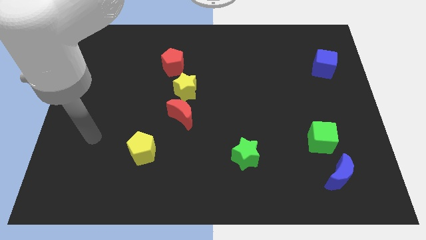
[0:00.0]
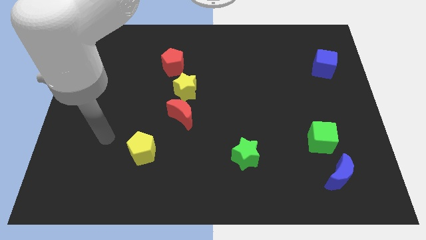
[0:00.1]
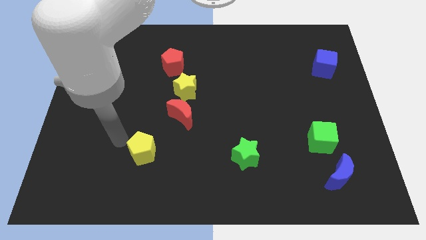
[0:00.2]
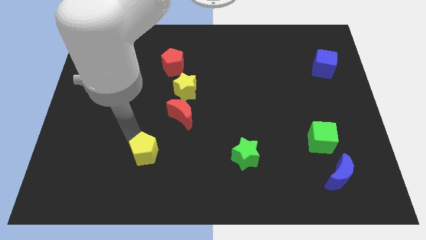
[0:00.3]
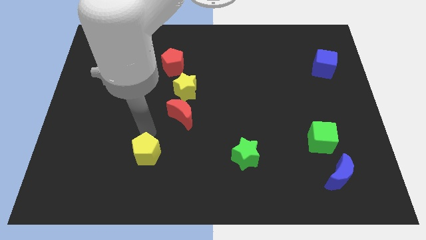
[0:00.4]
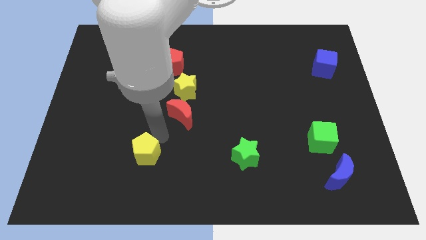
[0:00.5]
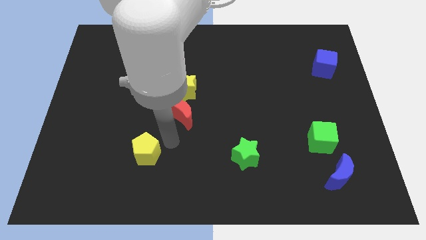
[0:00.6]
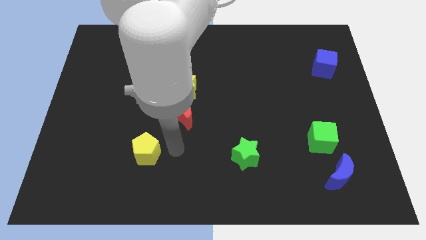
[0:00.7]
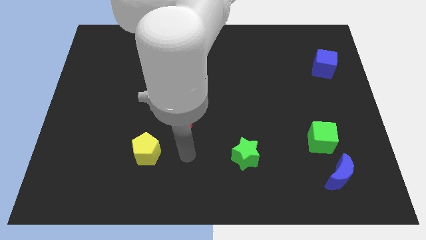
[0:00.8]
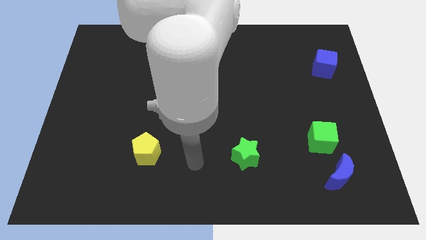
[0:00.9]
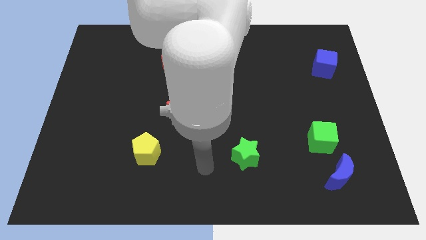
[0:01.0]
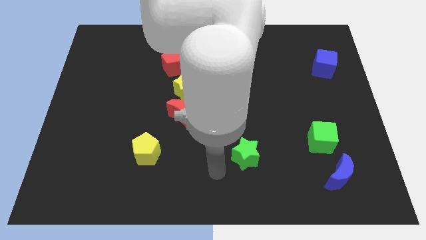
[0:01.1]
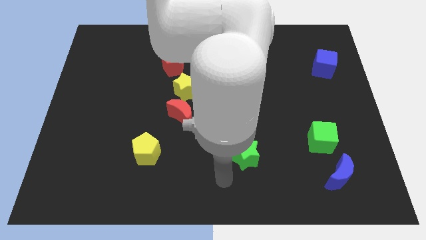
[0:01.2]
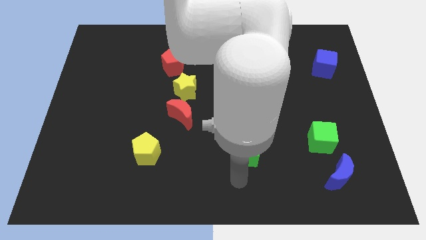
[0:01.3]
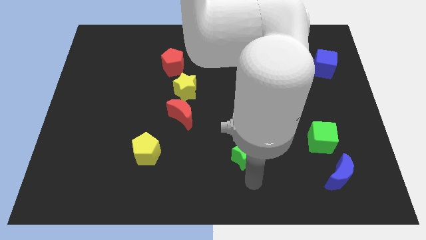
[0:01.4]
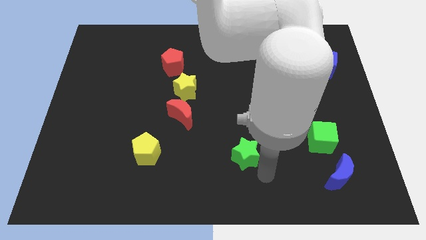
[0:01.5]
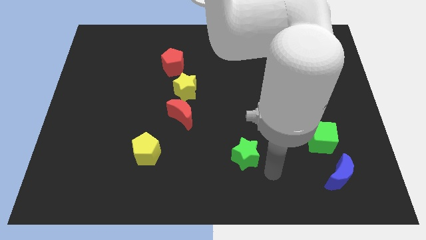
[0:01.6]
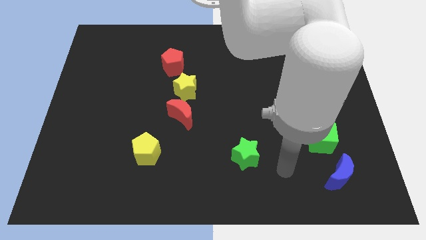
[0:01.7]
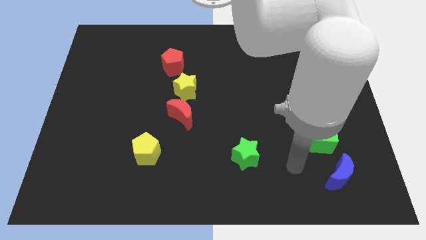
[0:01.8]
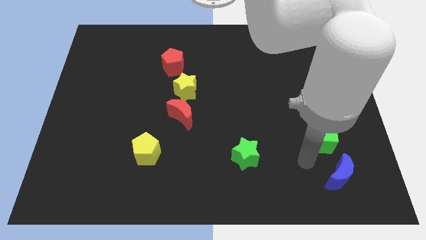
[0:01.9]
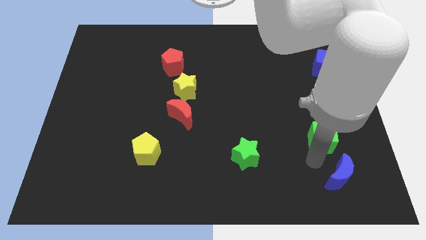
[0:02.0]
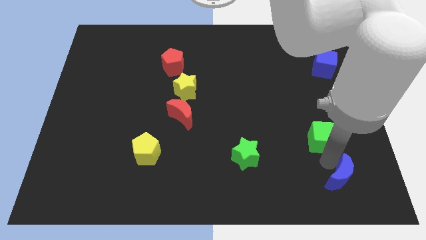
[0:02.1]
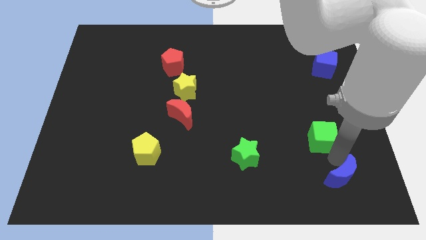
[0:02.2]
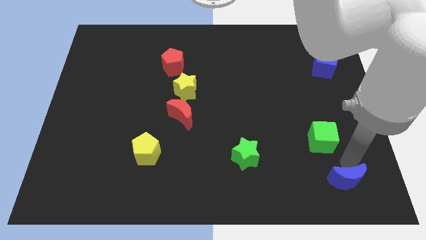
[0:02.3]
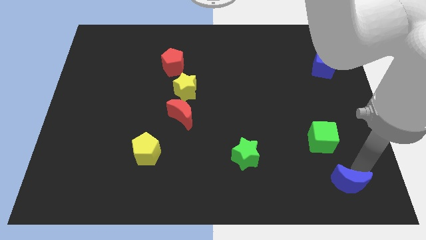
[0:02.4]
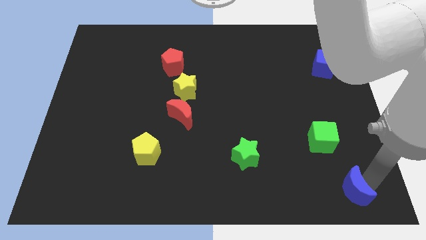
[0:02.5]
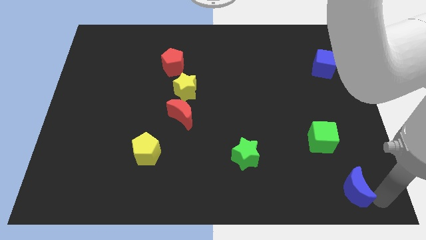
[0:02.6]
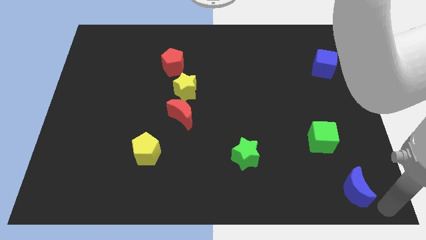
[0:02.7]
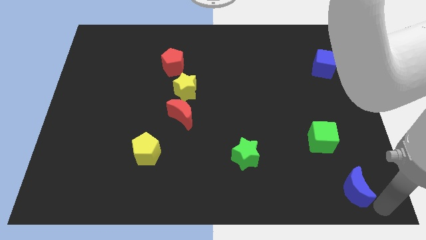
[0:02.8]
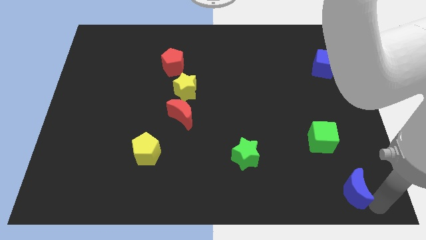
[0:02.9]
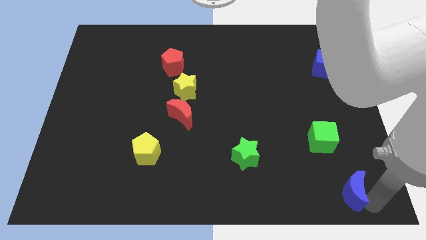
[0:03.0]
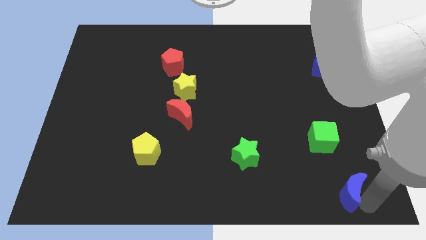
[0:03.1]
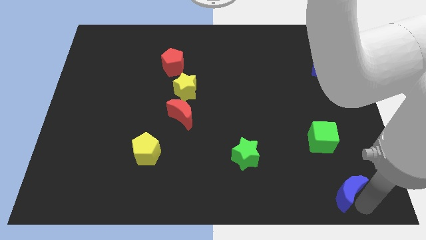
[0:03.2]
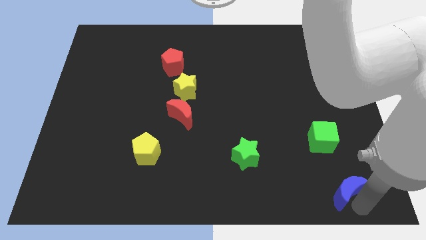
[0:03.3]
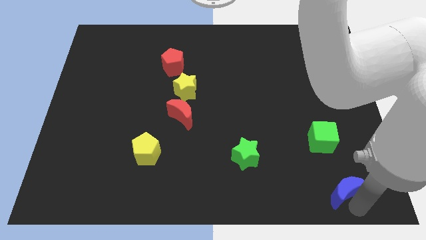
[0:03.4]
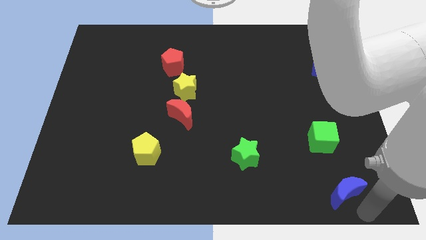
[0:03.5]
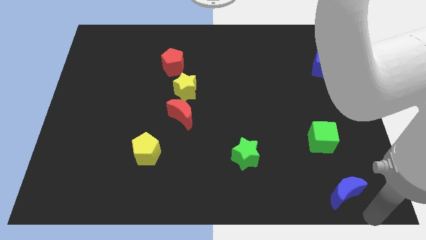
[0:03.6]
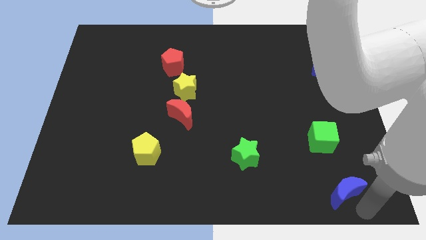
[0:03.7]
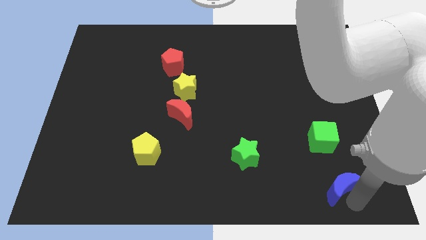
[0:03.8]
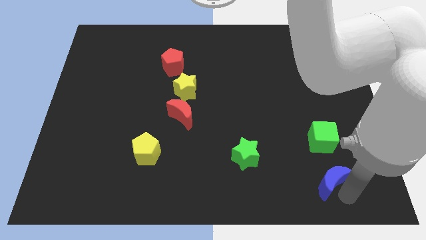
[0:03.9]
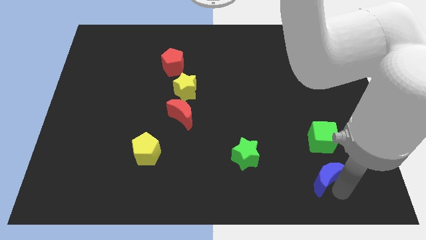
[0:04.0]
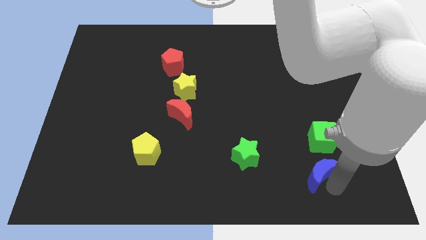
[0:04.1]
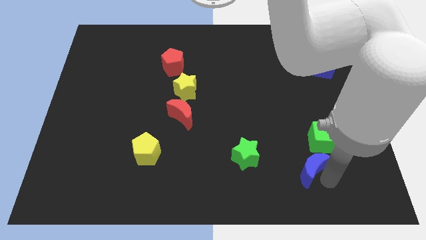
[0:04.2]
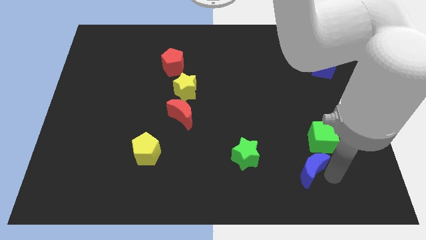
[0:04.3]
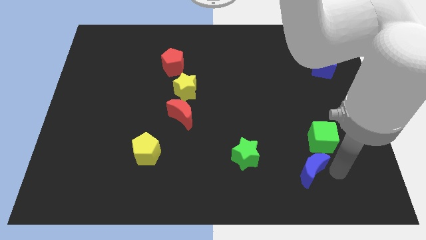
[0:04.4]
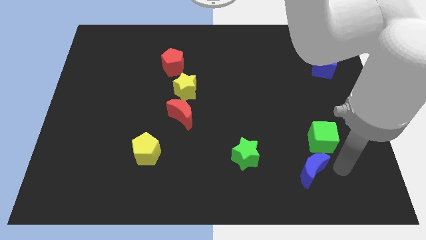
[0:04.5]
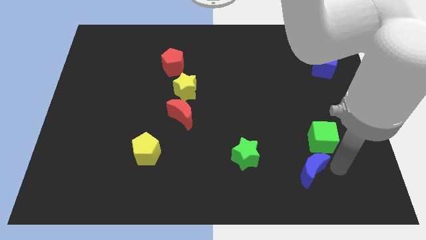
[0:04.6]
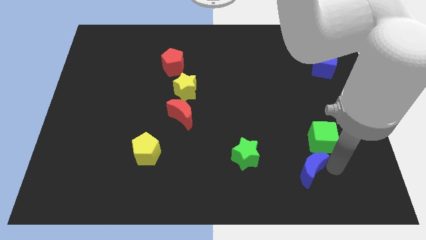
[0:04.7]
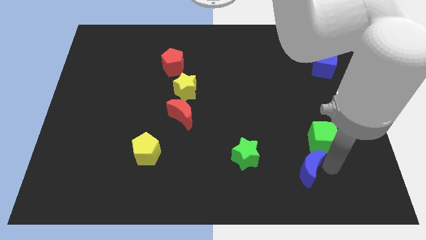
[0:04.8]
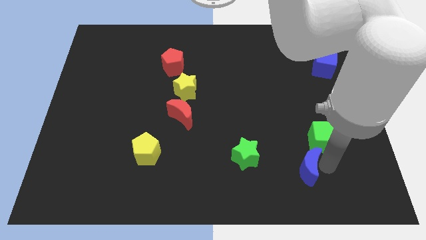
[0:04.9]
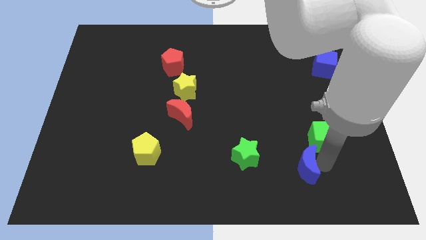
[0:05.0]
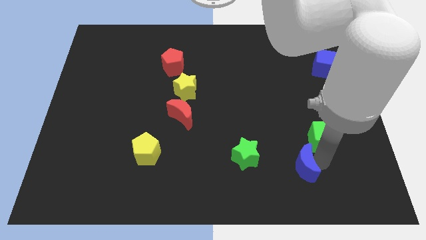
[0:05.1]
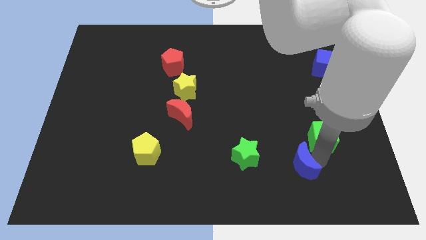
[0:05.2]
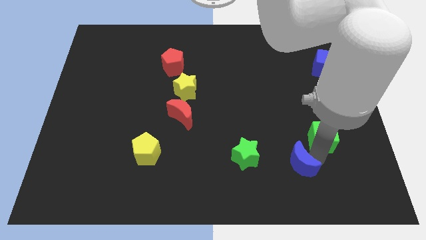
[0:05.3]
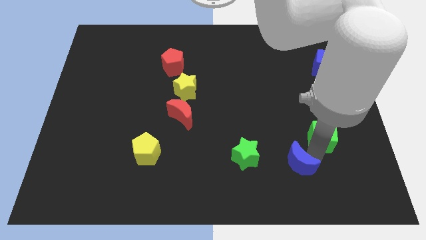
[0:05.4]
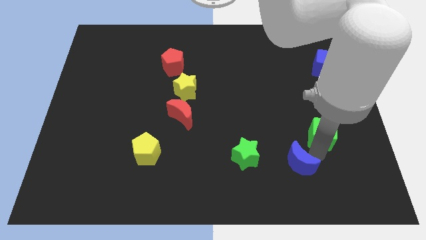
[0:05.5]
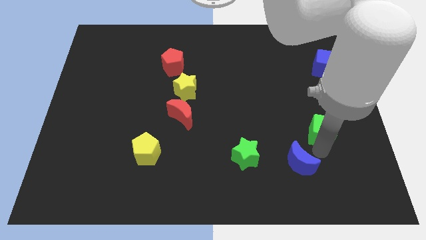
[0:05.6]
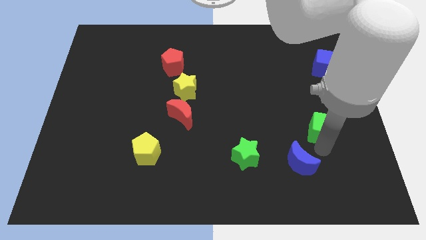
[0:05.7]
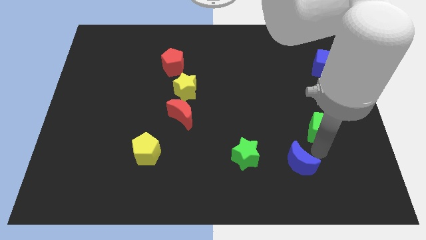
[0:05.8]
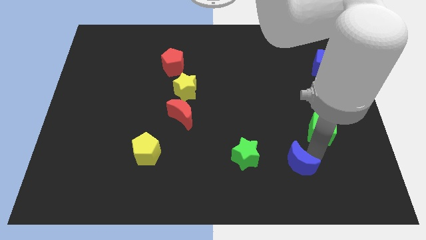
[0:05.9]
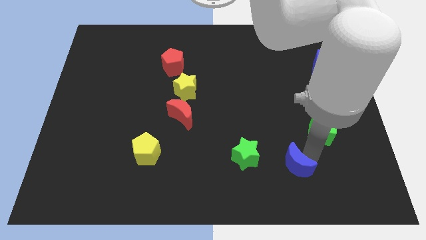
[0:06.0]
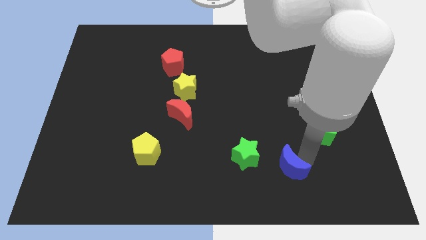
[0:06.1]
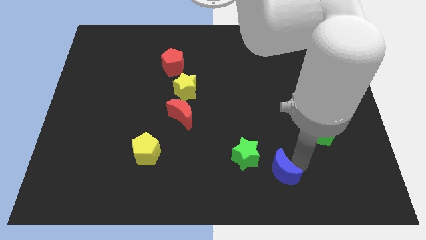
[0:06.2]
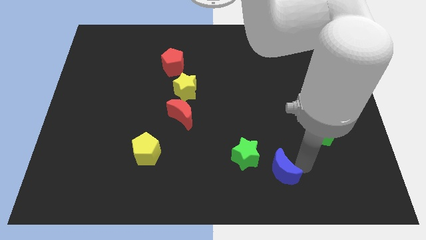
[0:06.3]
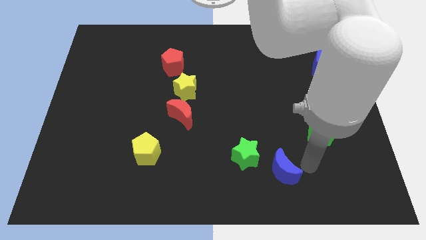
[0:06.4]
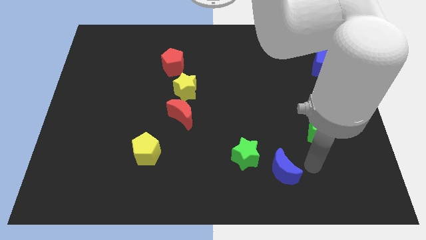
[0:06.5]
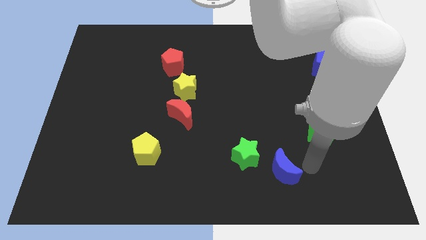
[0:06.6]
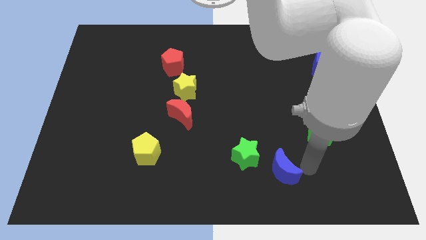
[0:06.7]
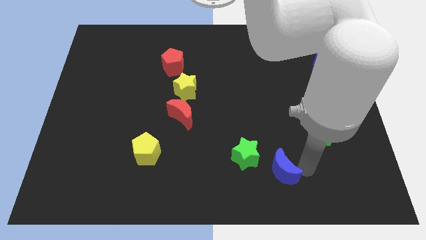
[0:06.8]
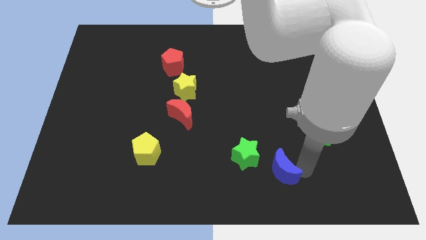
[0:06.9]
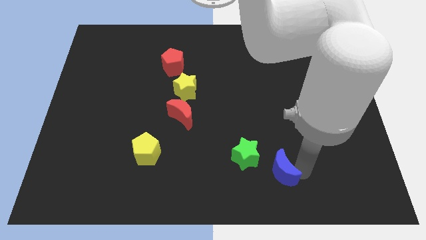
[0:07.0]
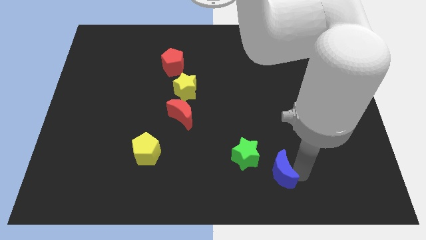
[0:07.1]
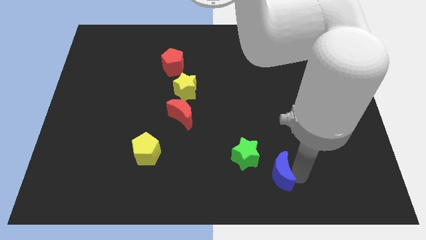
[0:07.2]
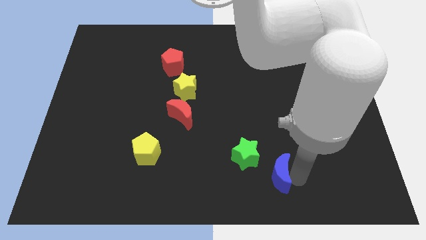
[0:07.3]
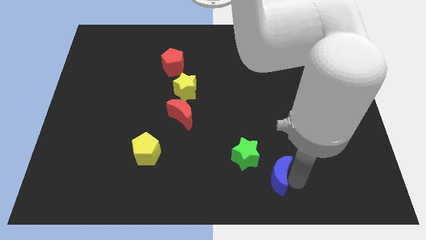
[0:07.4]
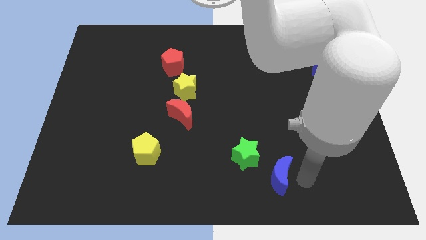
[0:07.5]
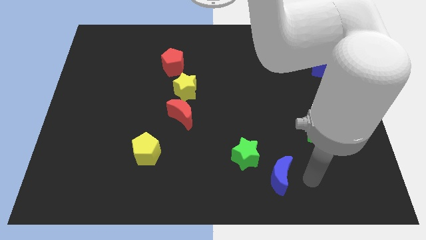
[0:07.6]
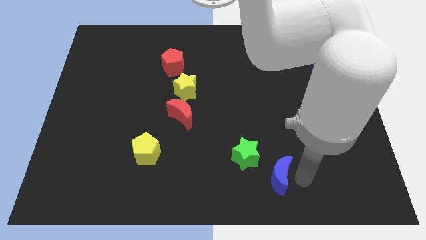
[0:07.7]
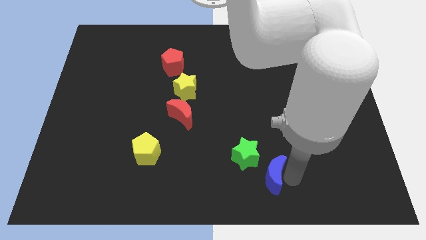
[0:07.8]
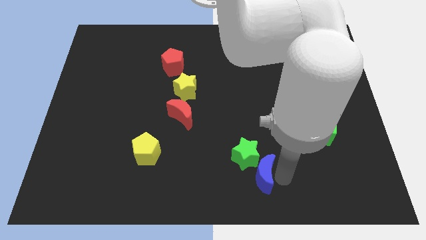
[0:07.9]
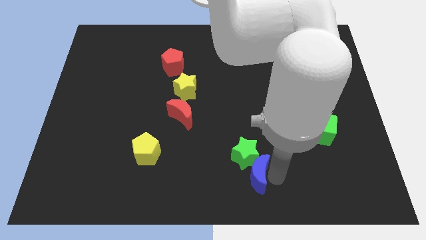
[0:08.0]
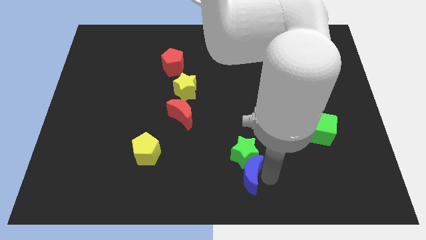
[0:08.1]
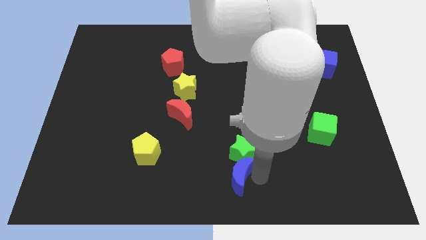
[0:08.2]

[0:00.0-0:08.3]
slide the blue moon to the left
